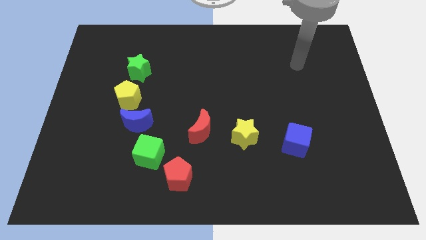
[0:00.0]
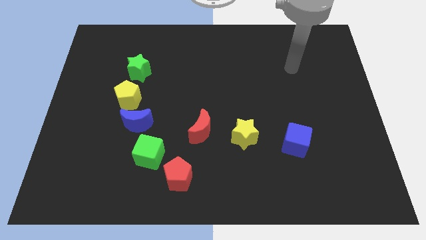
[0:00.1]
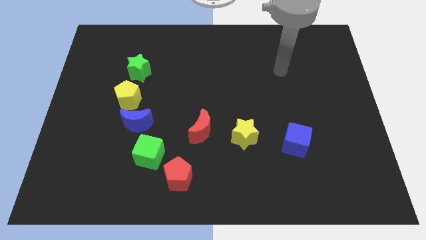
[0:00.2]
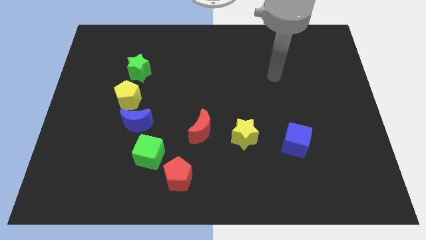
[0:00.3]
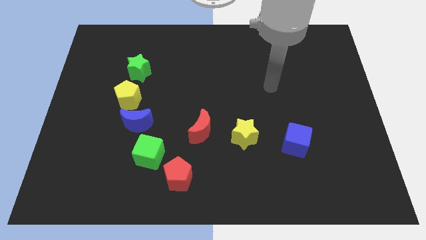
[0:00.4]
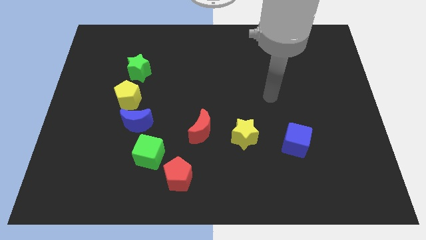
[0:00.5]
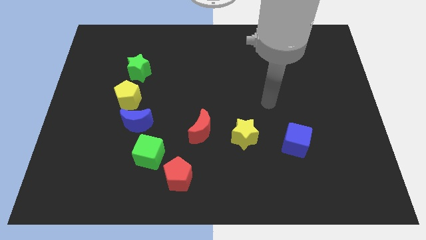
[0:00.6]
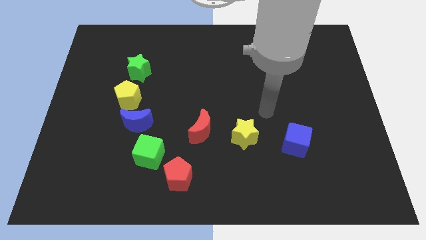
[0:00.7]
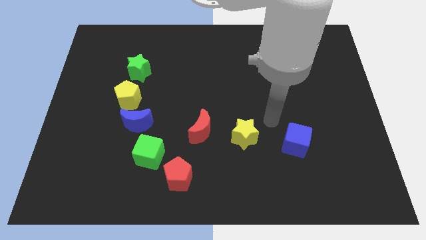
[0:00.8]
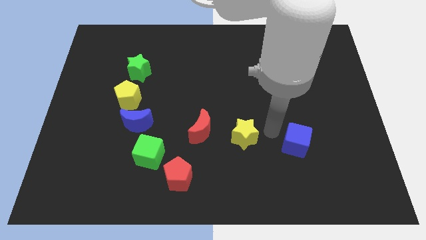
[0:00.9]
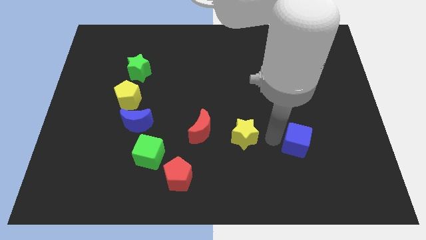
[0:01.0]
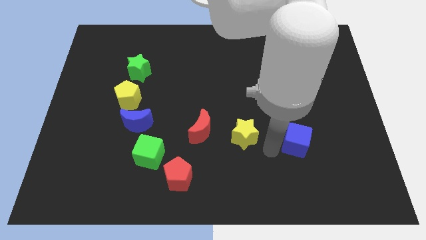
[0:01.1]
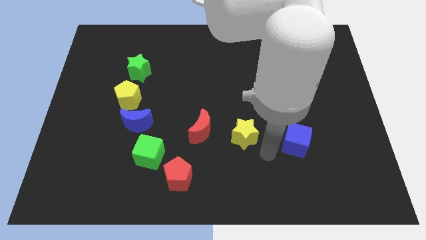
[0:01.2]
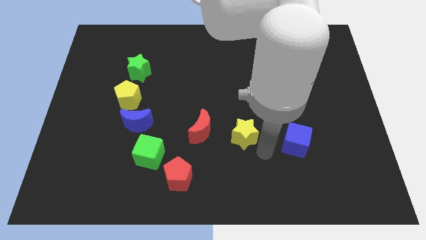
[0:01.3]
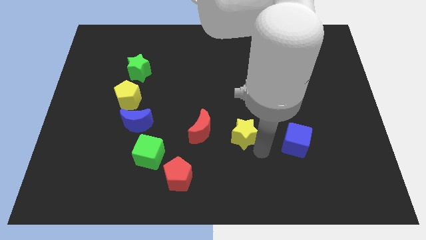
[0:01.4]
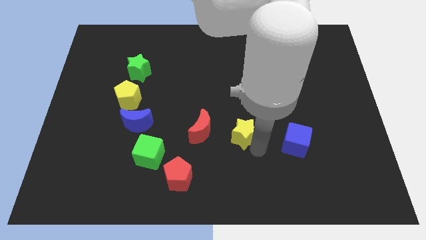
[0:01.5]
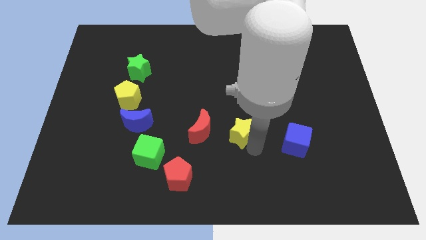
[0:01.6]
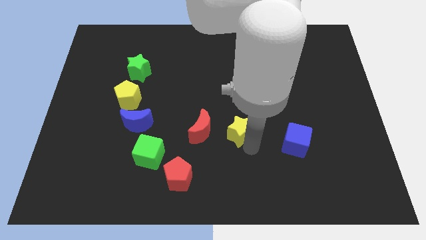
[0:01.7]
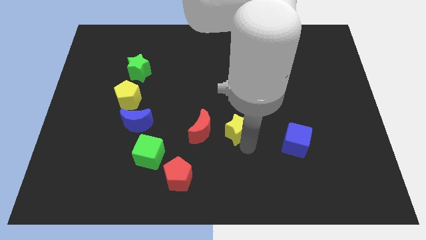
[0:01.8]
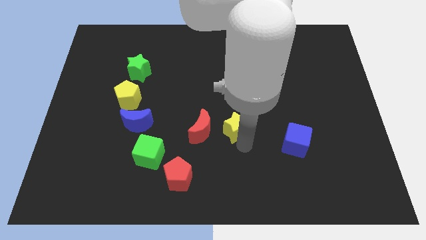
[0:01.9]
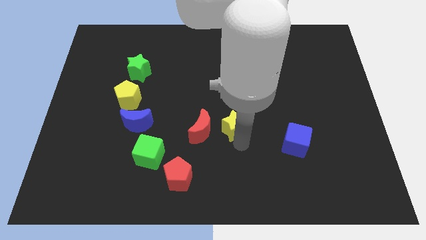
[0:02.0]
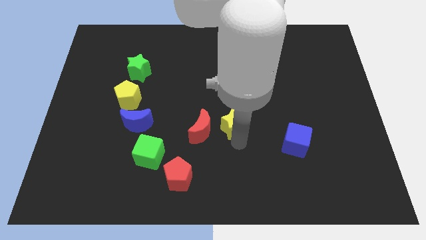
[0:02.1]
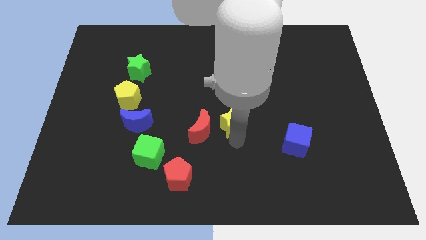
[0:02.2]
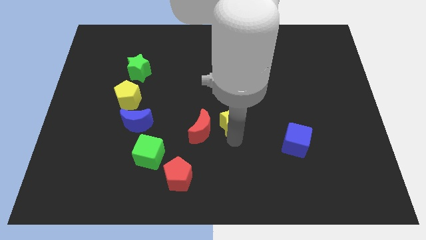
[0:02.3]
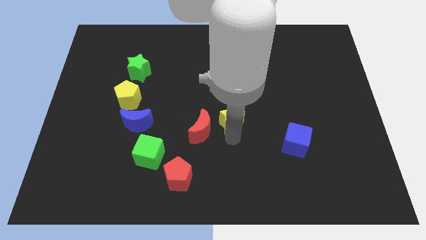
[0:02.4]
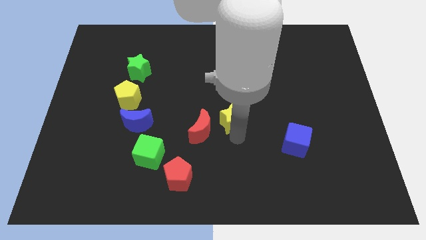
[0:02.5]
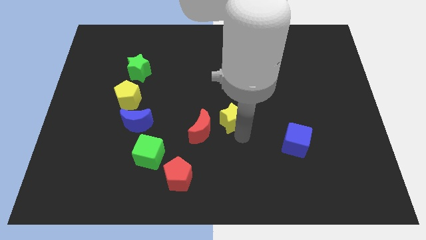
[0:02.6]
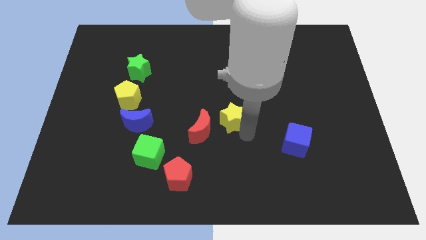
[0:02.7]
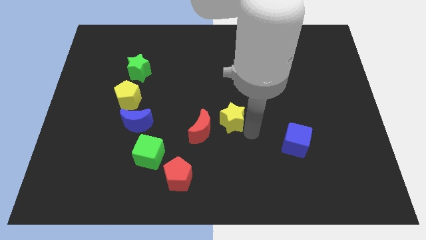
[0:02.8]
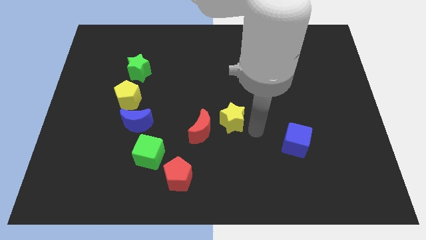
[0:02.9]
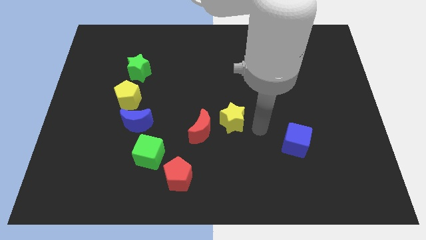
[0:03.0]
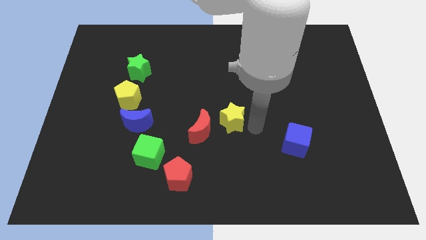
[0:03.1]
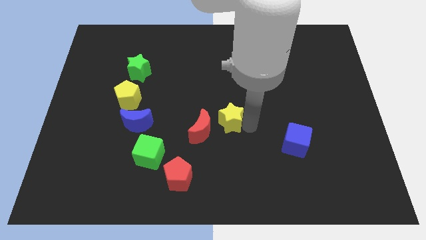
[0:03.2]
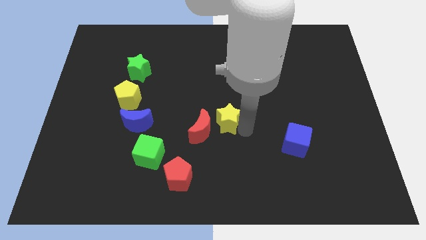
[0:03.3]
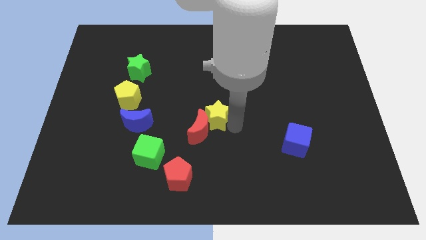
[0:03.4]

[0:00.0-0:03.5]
slide the yellow star up and to the left somewhat

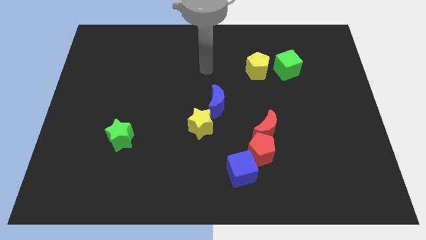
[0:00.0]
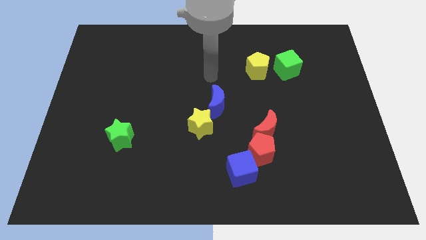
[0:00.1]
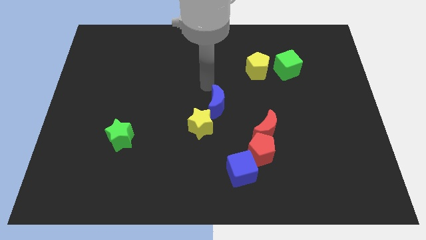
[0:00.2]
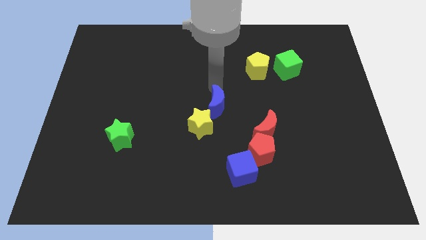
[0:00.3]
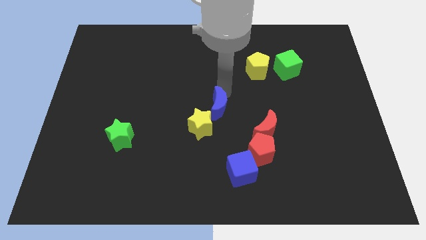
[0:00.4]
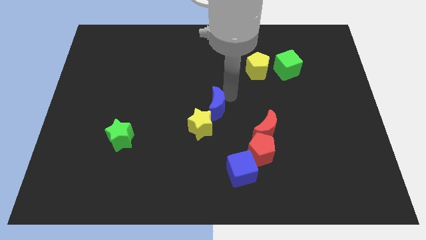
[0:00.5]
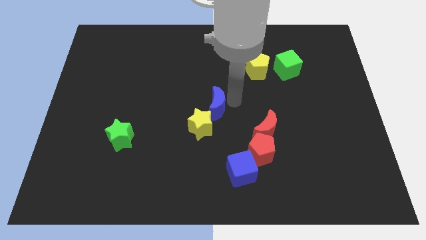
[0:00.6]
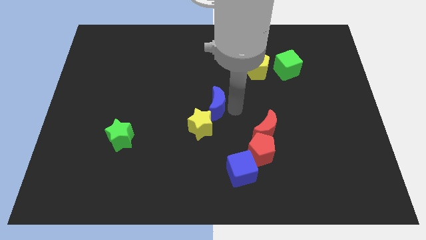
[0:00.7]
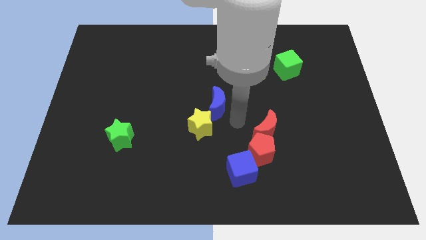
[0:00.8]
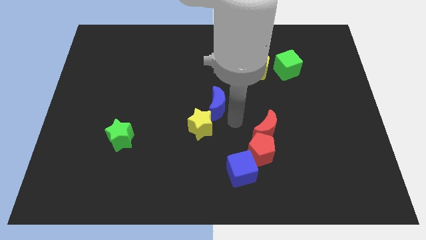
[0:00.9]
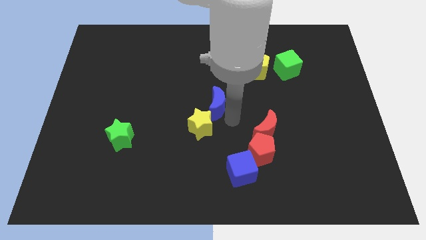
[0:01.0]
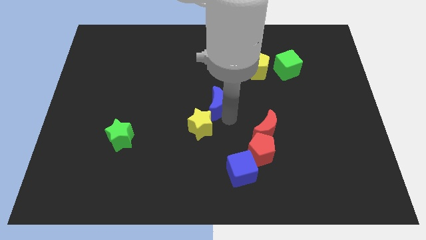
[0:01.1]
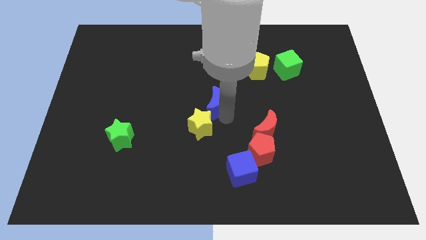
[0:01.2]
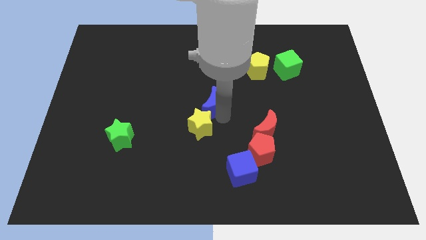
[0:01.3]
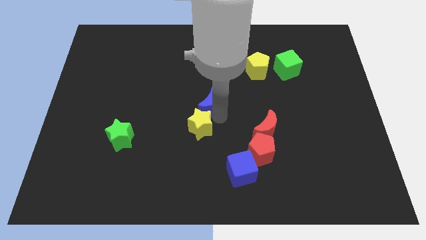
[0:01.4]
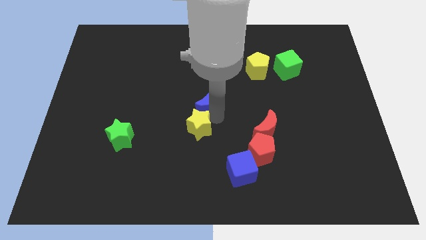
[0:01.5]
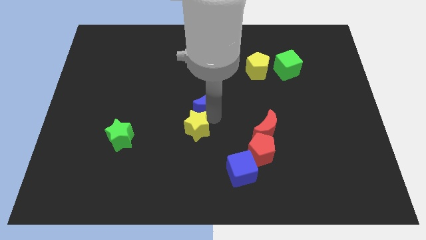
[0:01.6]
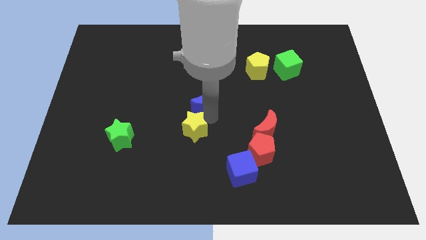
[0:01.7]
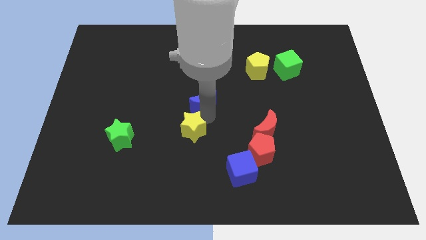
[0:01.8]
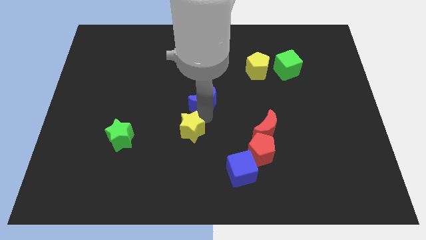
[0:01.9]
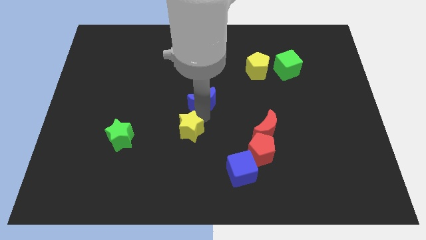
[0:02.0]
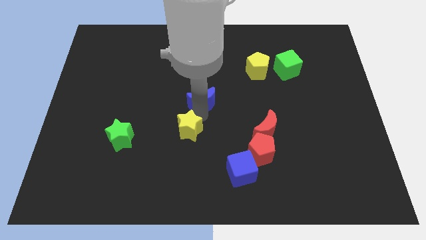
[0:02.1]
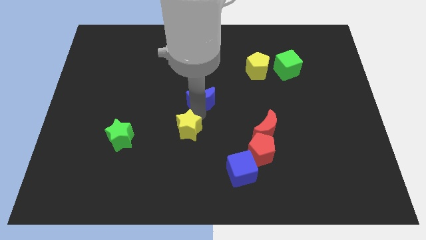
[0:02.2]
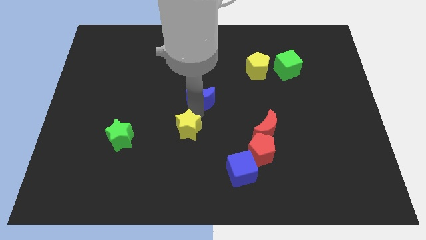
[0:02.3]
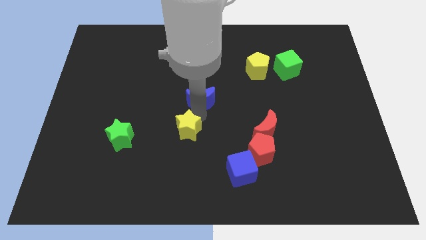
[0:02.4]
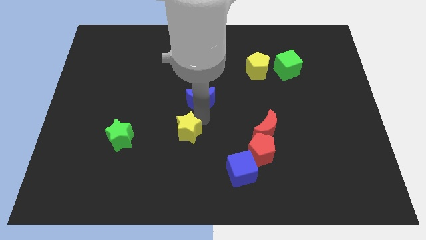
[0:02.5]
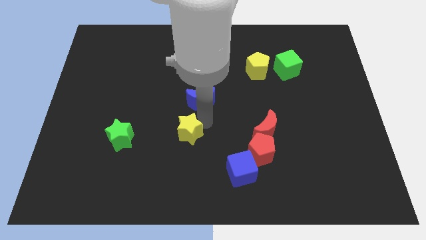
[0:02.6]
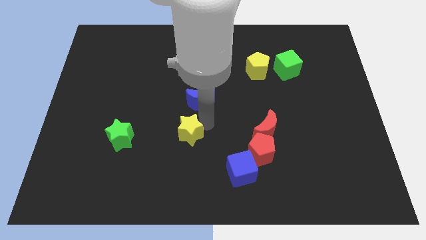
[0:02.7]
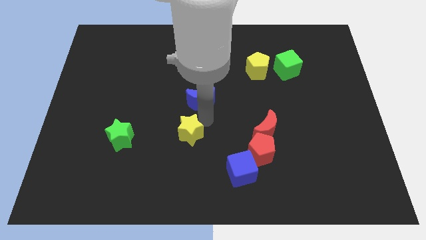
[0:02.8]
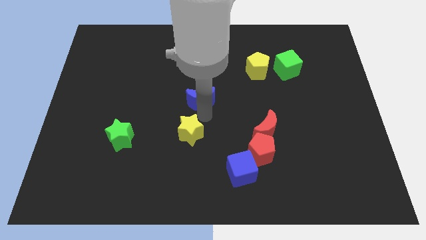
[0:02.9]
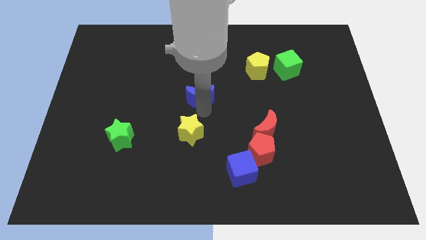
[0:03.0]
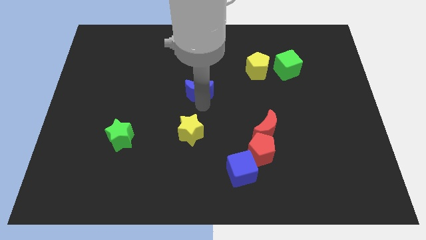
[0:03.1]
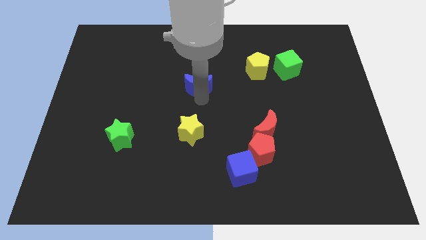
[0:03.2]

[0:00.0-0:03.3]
push the blue moon slightly up and then to the left

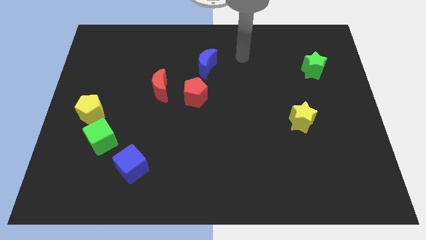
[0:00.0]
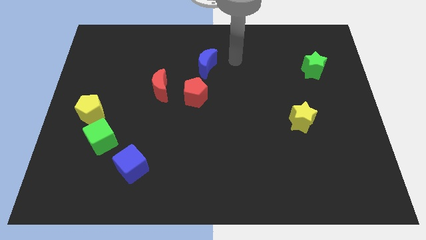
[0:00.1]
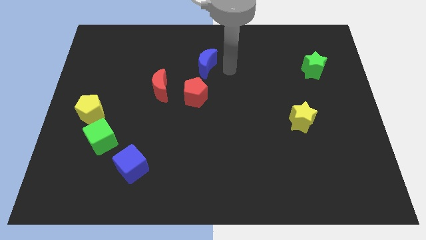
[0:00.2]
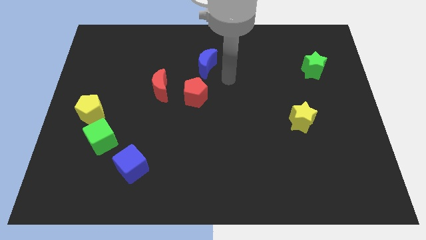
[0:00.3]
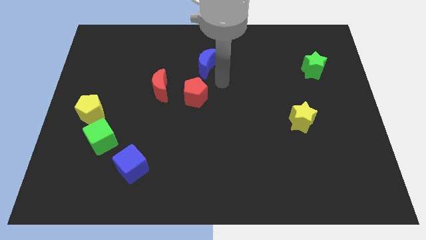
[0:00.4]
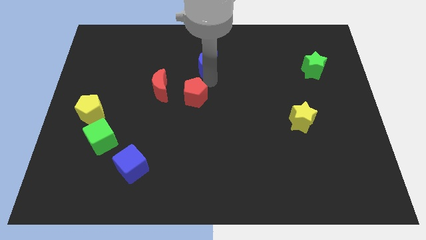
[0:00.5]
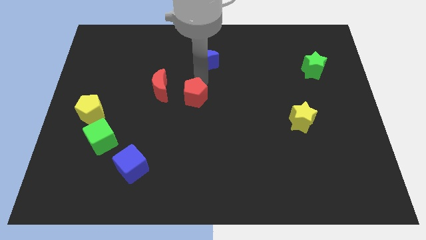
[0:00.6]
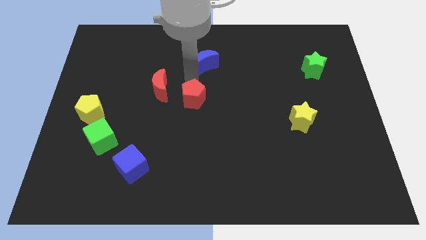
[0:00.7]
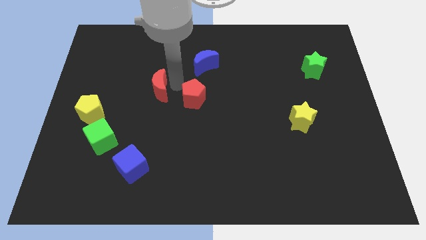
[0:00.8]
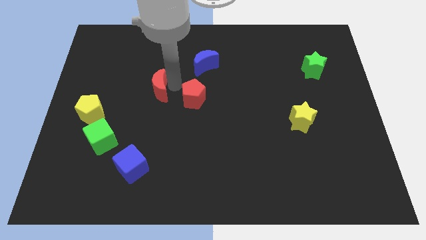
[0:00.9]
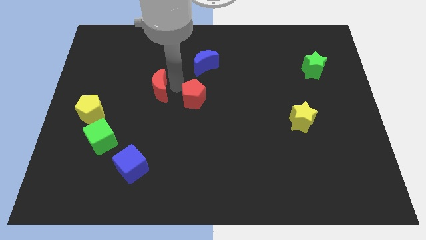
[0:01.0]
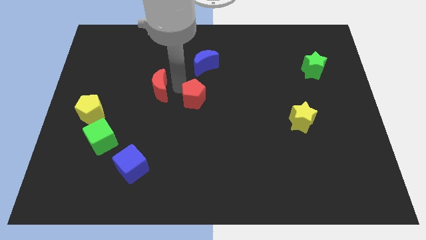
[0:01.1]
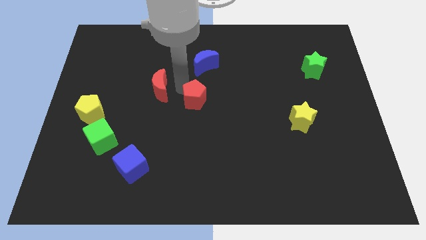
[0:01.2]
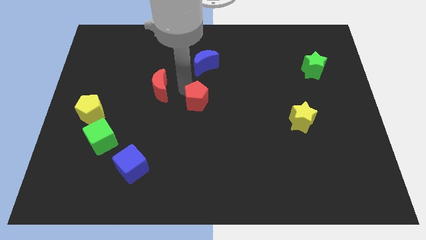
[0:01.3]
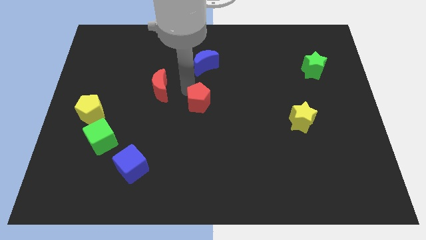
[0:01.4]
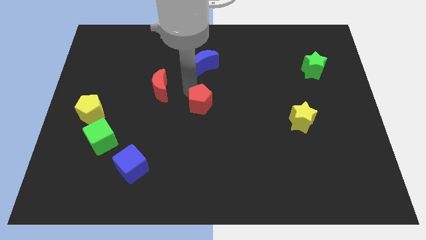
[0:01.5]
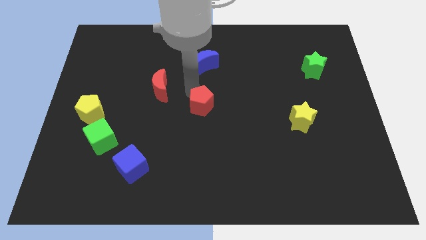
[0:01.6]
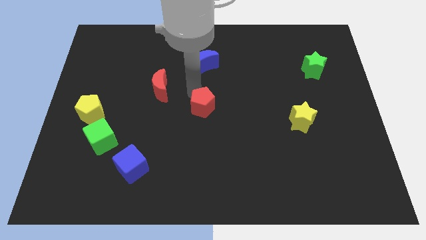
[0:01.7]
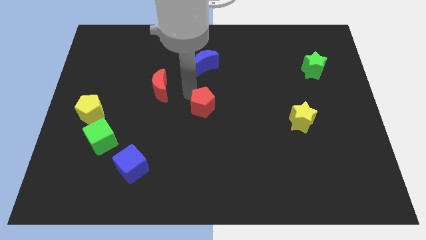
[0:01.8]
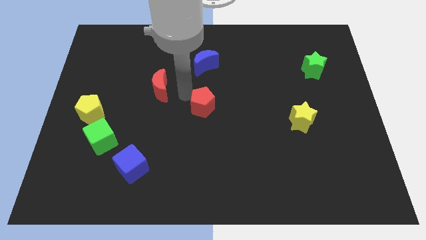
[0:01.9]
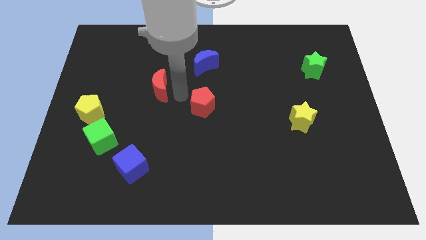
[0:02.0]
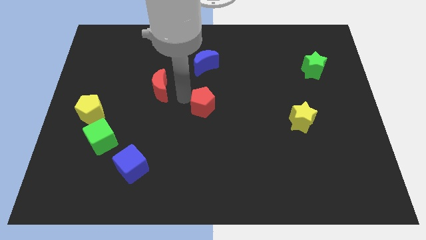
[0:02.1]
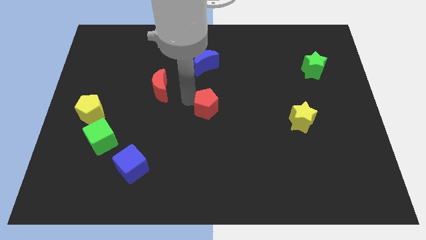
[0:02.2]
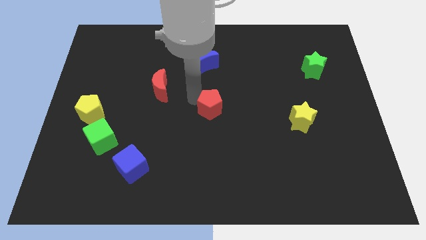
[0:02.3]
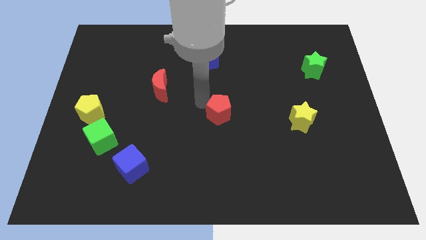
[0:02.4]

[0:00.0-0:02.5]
slide the red pentagon diagonally downwards and right a little
